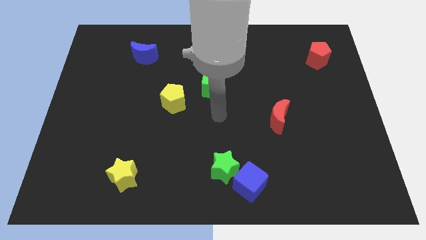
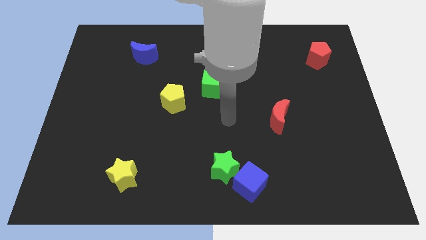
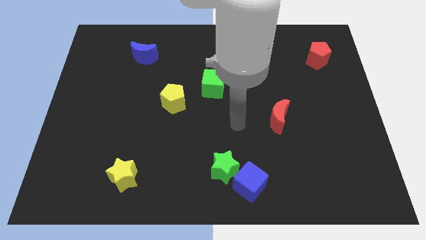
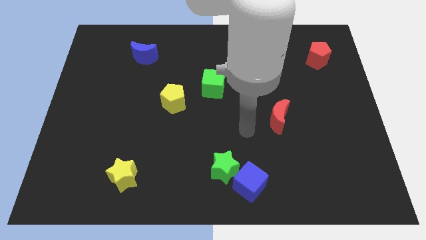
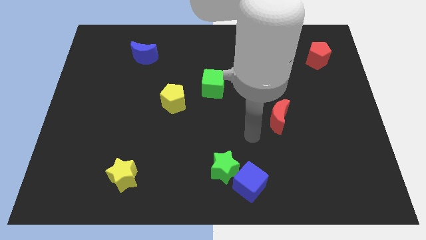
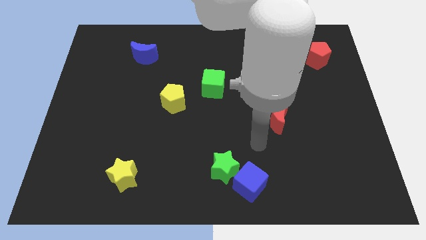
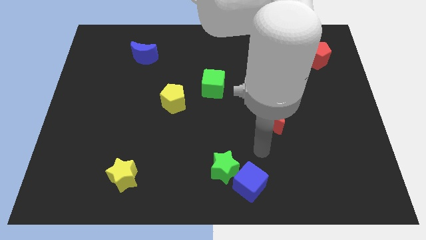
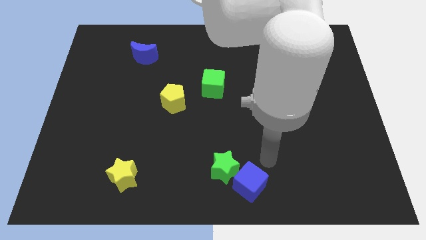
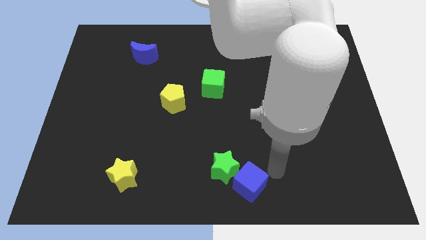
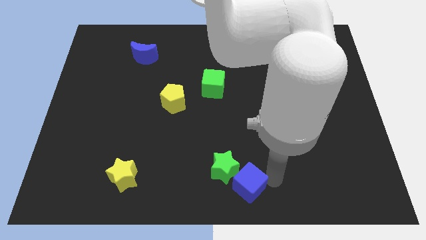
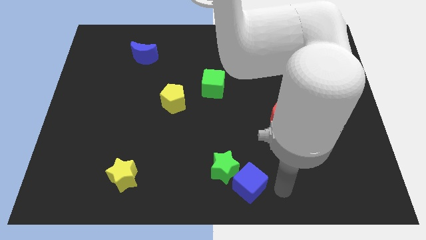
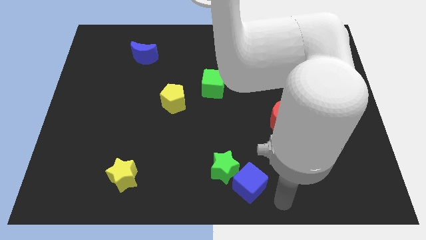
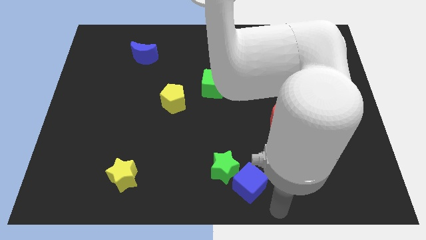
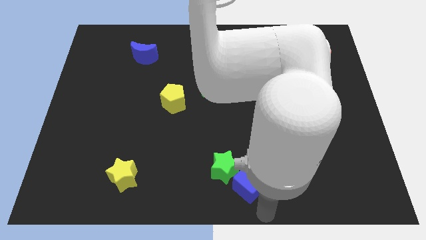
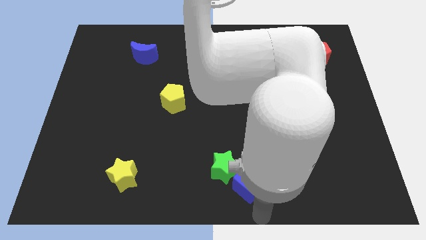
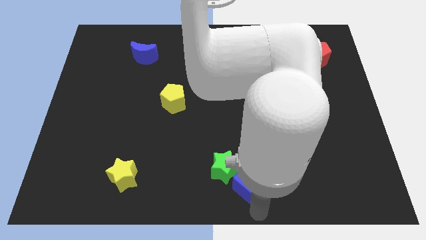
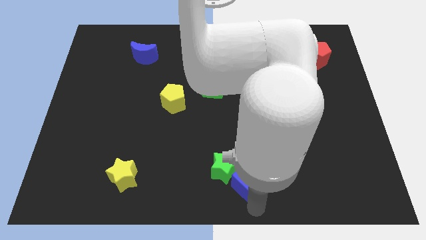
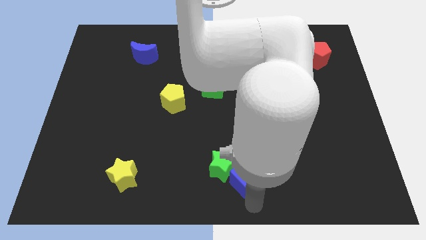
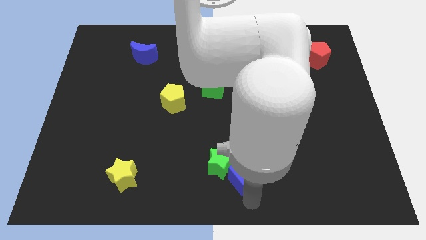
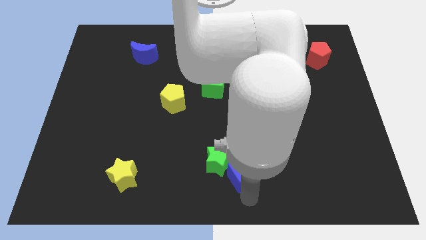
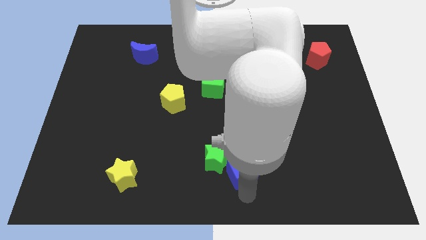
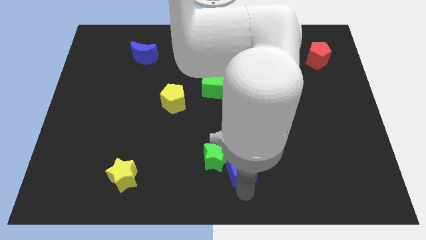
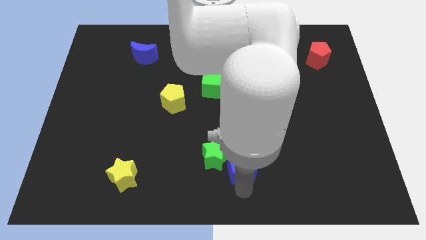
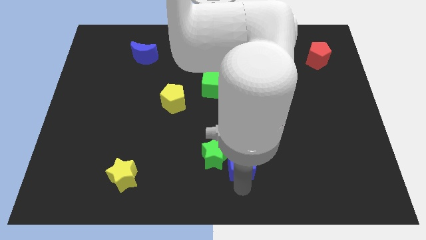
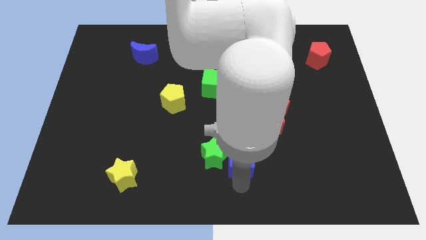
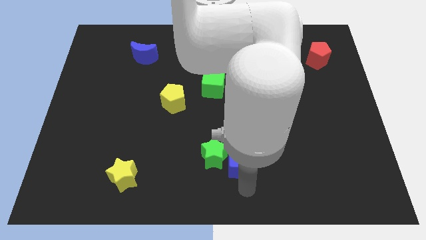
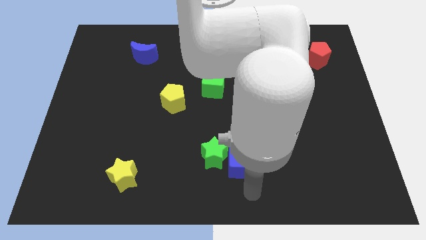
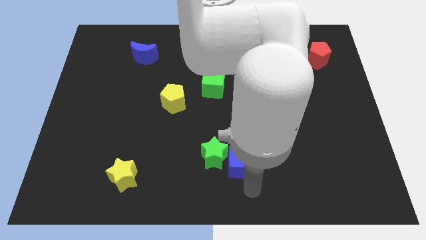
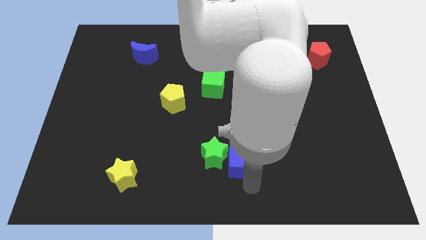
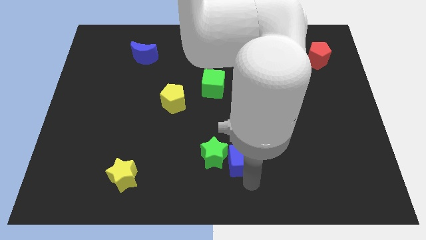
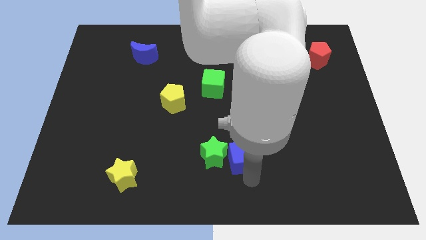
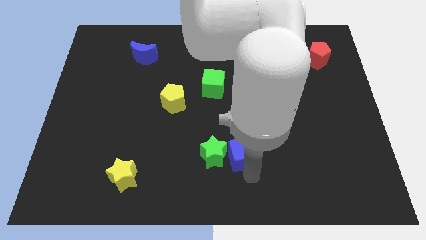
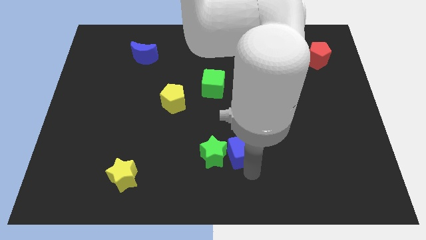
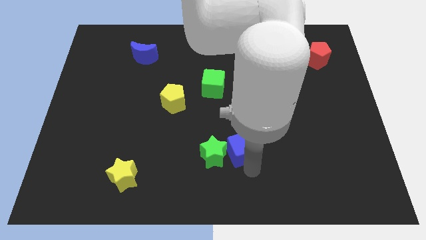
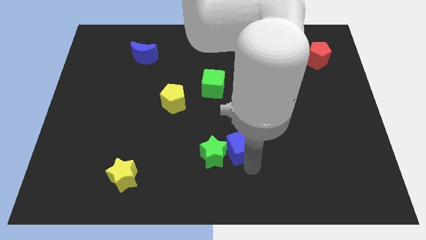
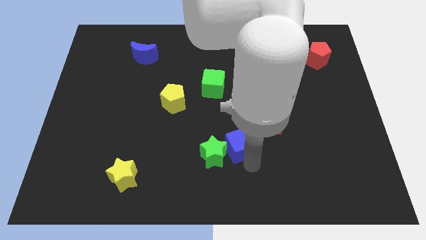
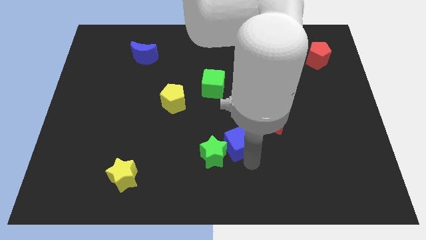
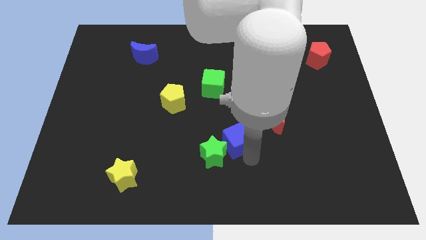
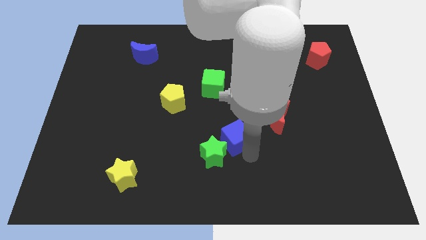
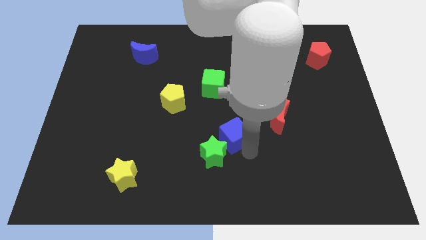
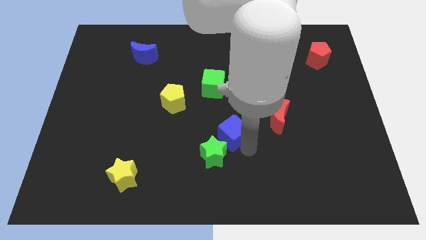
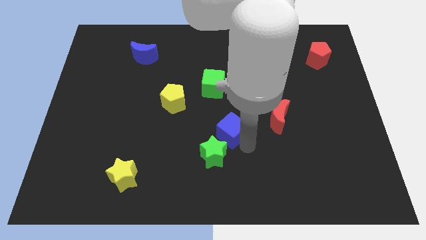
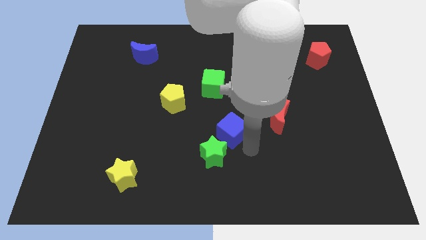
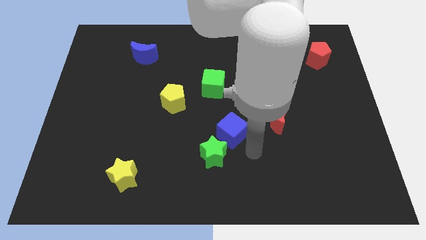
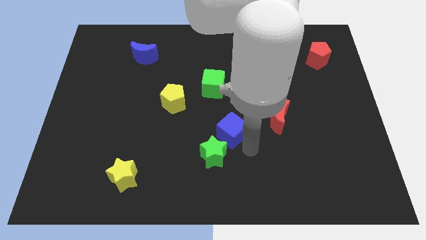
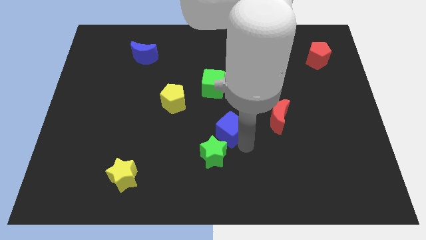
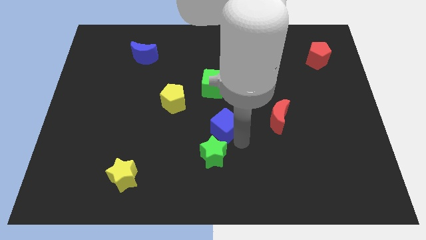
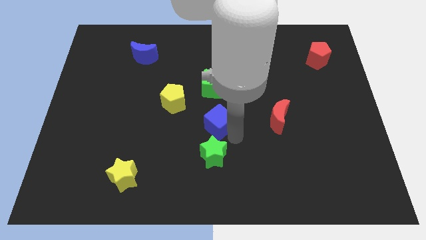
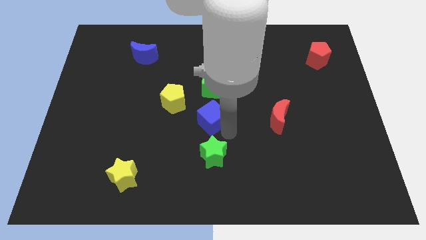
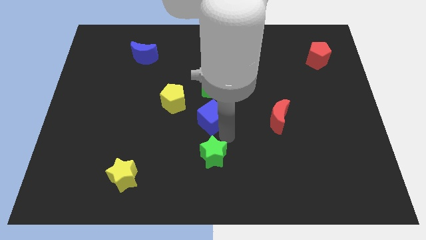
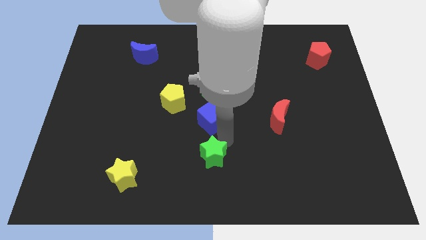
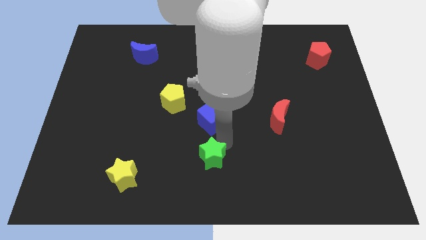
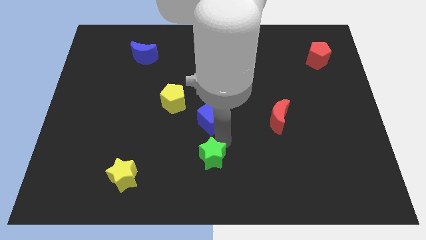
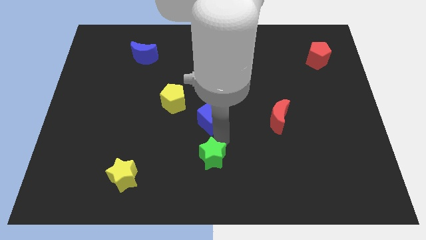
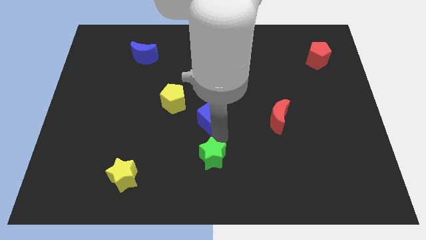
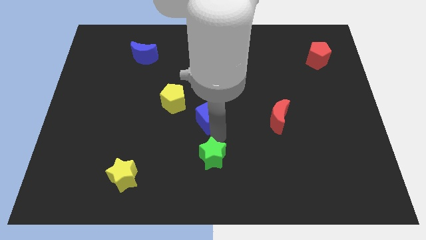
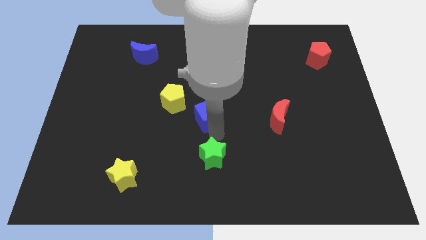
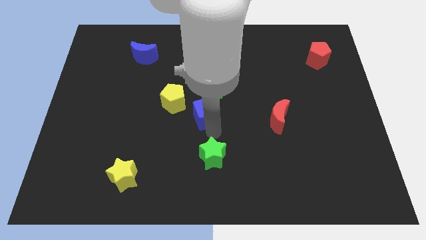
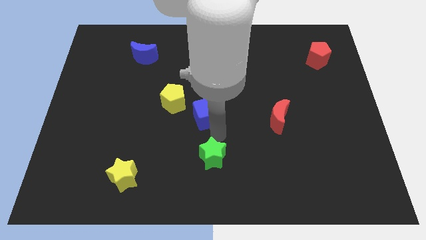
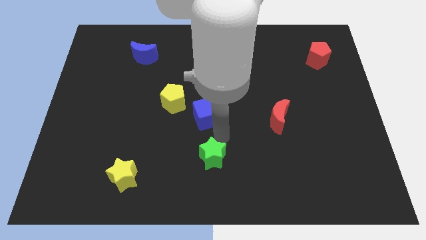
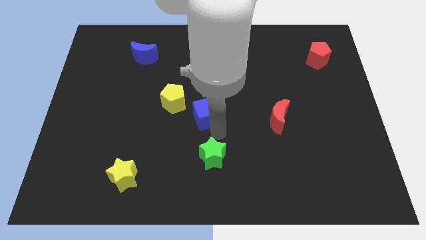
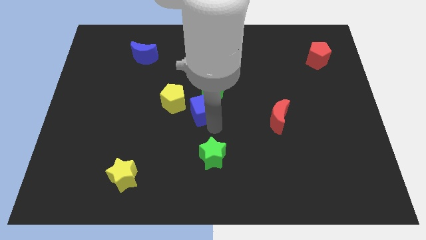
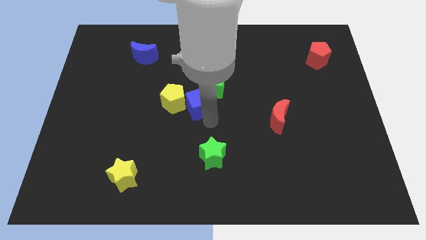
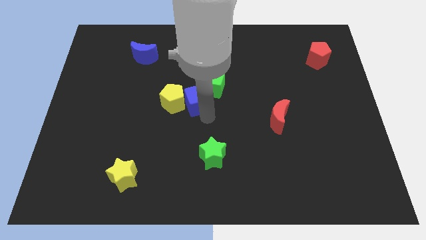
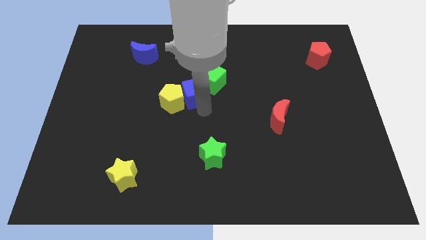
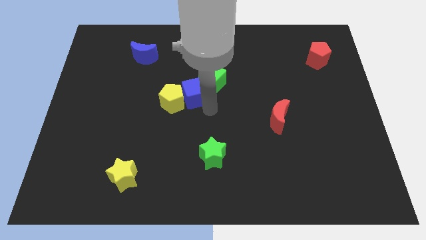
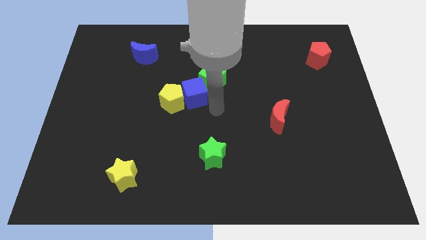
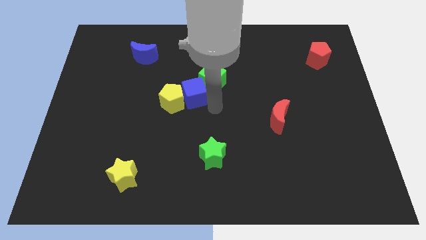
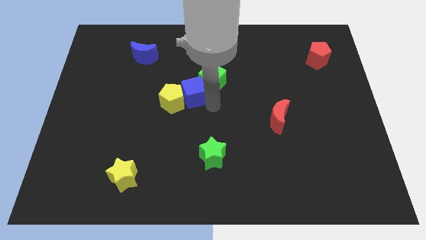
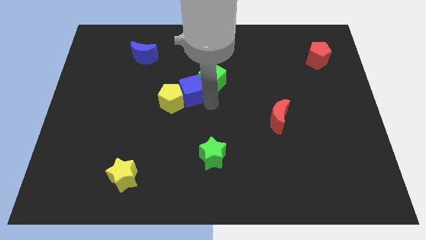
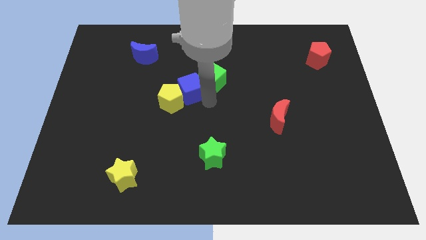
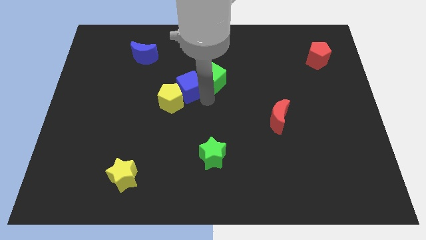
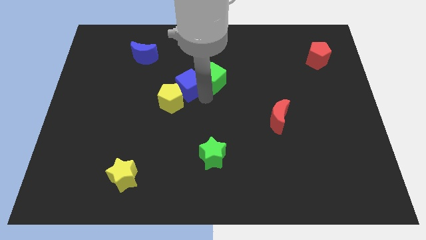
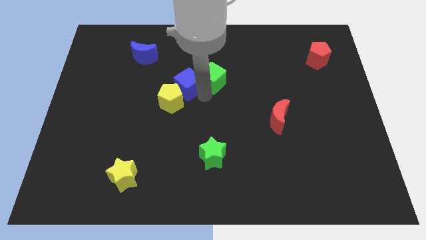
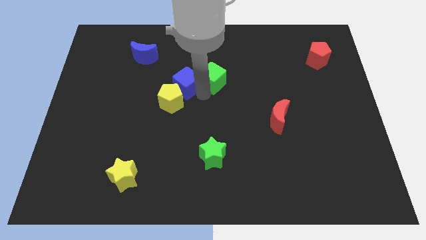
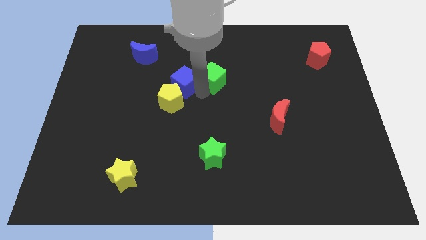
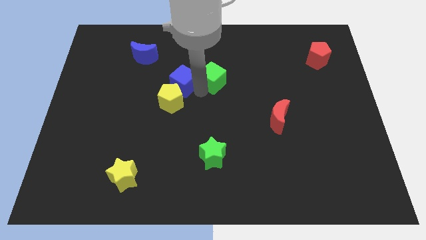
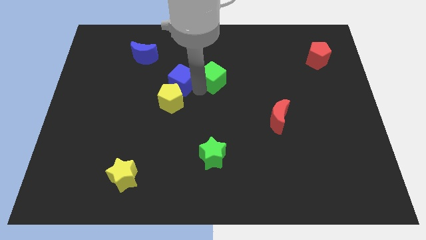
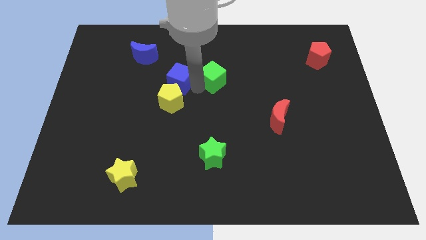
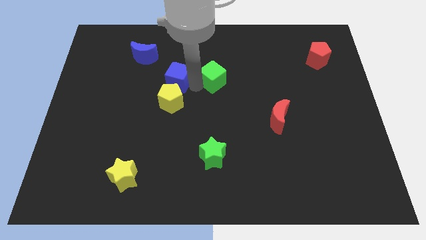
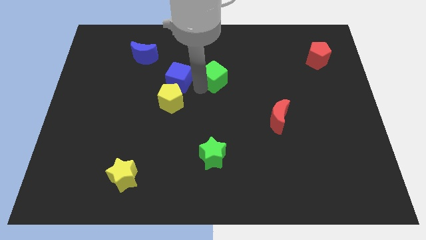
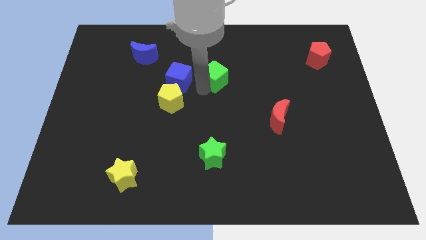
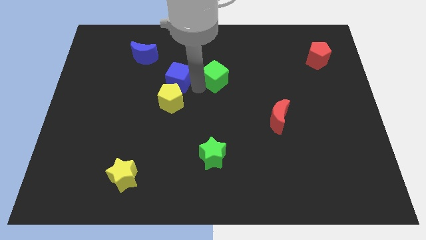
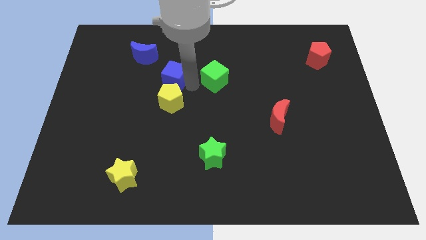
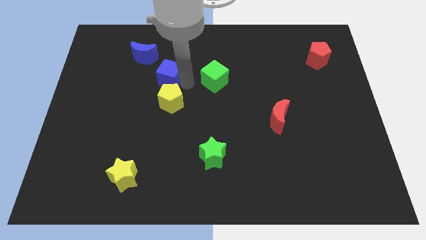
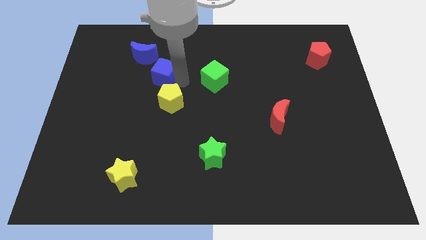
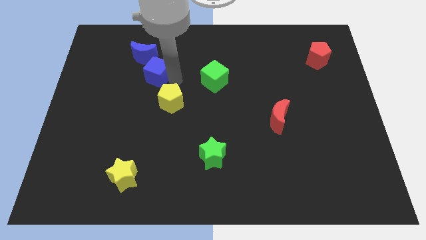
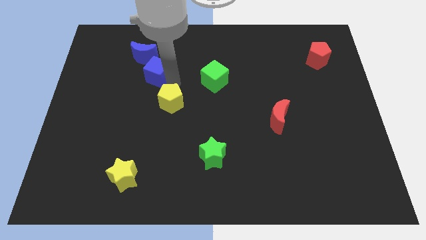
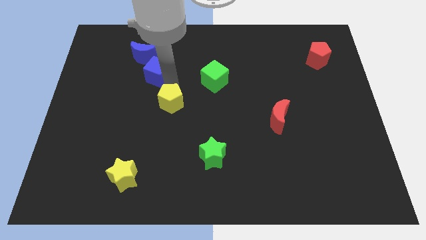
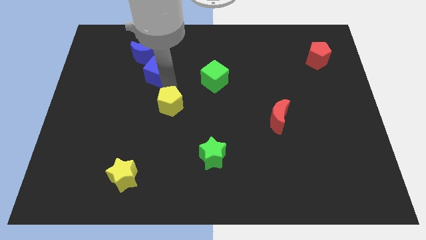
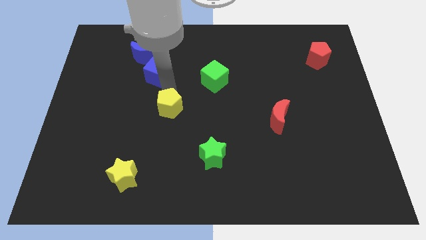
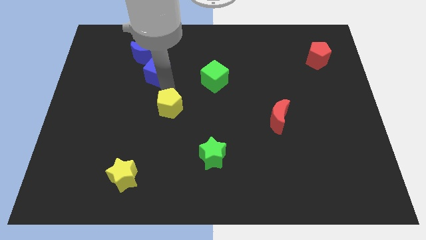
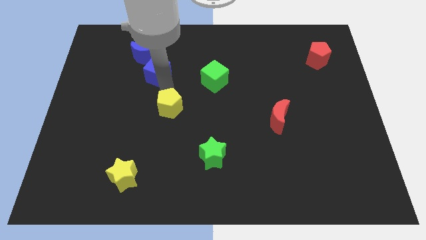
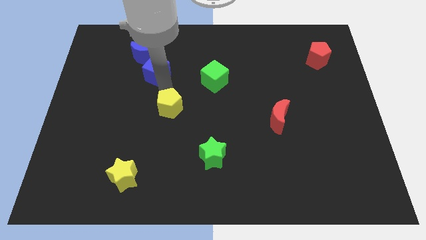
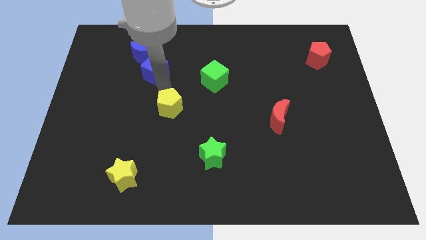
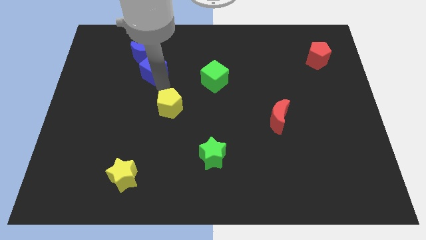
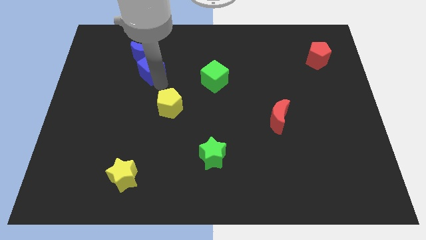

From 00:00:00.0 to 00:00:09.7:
put the blue cube next to the blue moon
